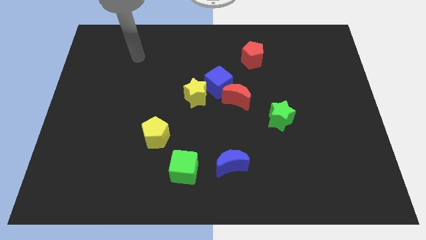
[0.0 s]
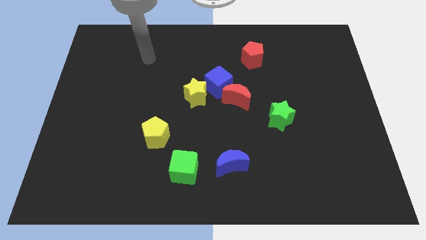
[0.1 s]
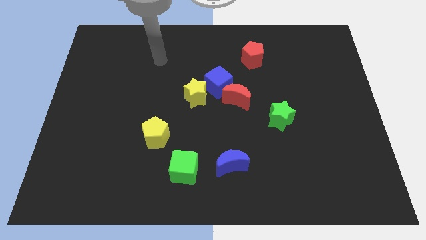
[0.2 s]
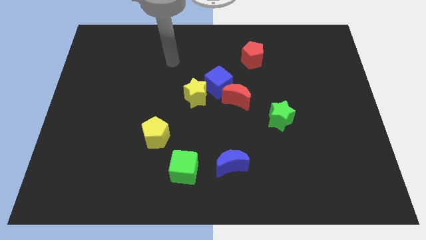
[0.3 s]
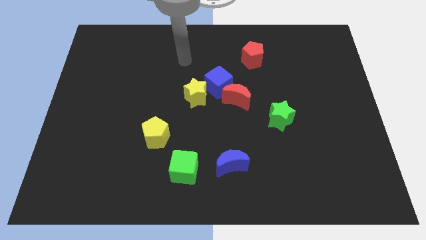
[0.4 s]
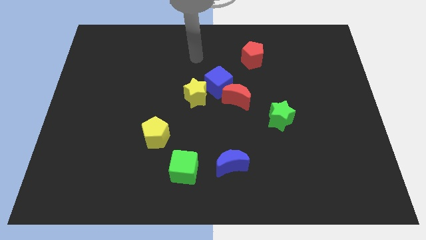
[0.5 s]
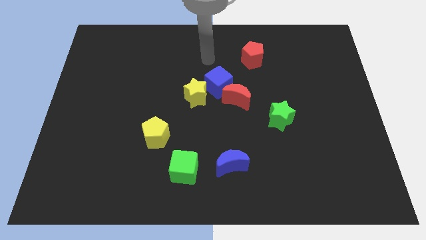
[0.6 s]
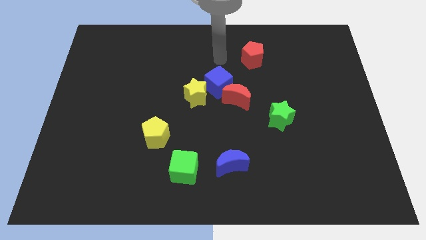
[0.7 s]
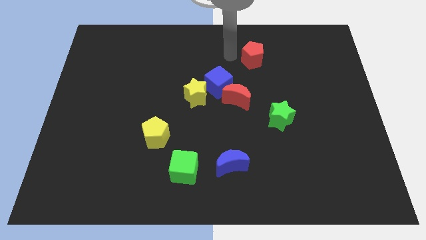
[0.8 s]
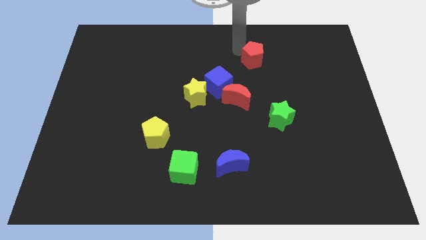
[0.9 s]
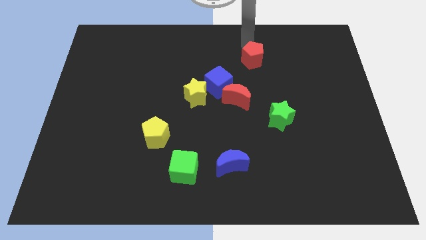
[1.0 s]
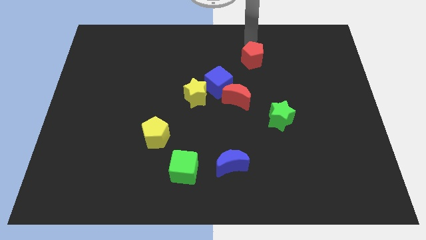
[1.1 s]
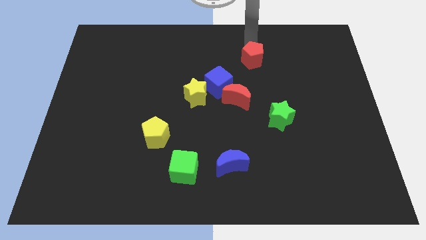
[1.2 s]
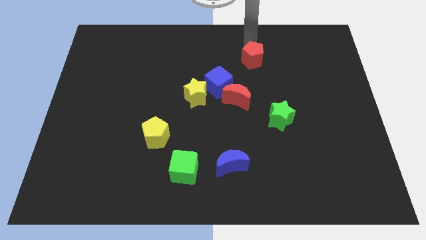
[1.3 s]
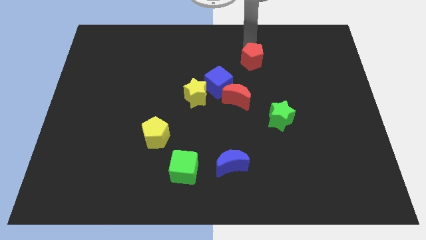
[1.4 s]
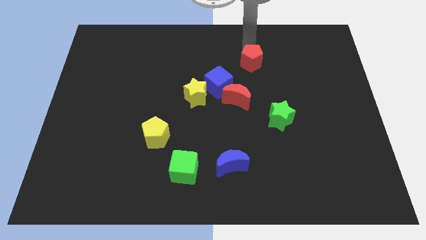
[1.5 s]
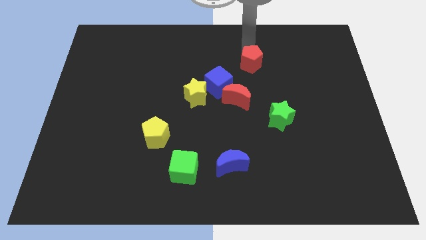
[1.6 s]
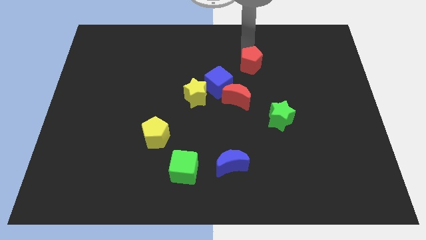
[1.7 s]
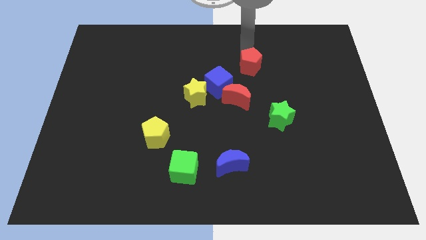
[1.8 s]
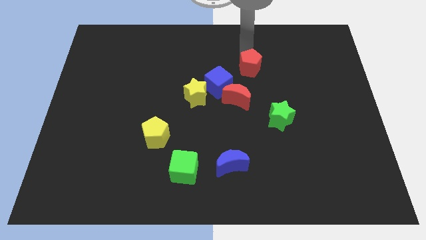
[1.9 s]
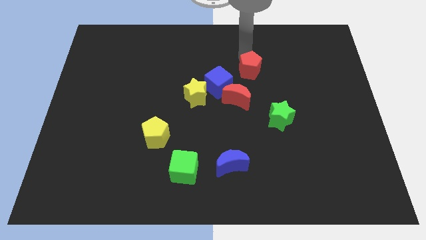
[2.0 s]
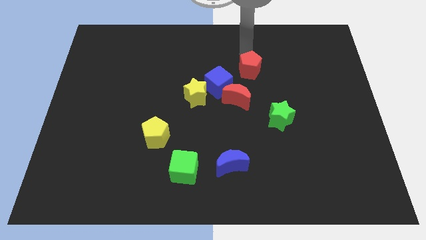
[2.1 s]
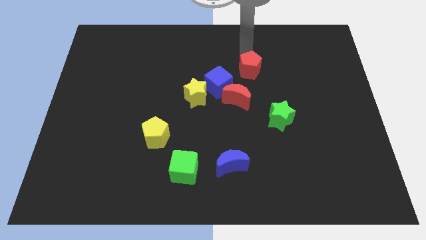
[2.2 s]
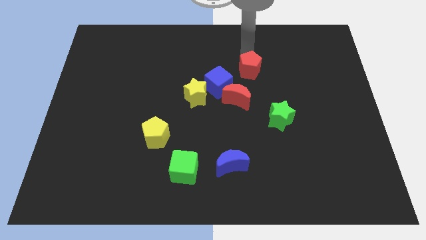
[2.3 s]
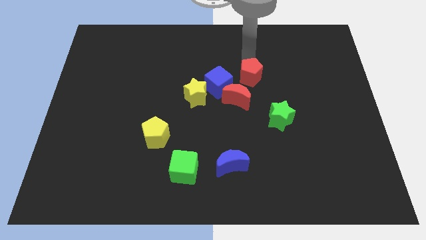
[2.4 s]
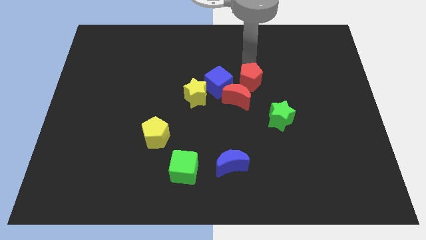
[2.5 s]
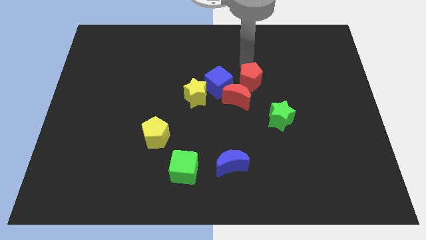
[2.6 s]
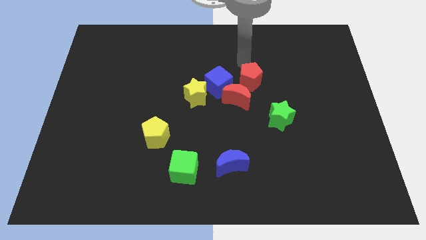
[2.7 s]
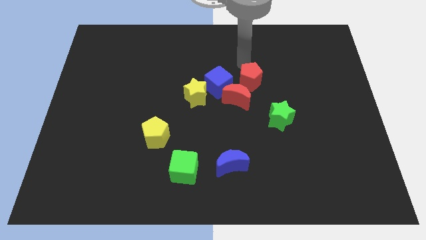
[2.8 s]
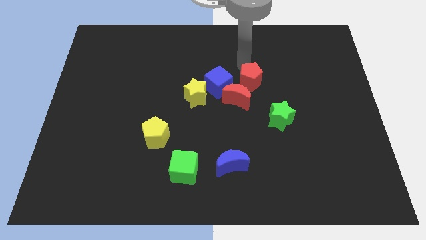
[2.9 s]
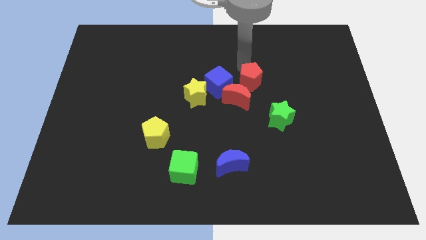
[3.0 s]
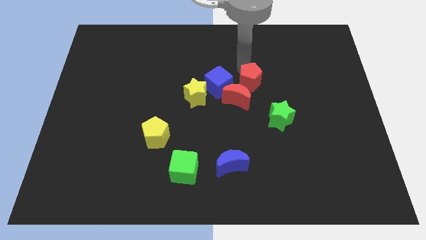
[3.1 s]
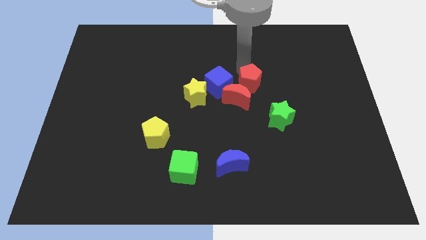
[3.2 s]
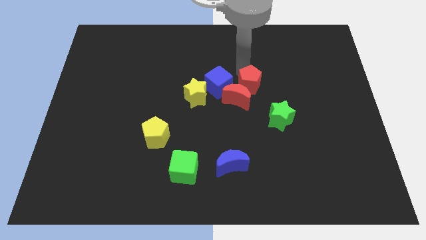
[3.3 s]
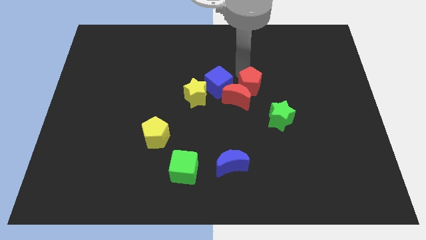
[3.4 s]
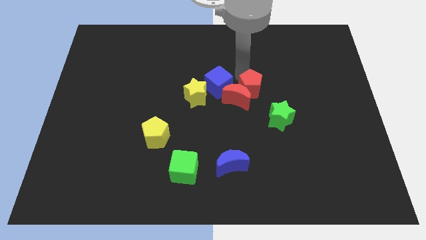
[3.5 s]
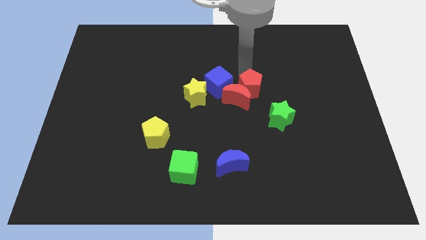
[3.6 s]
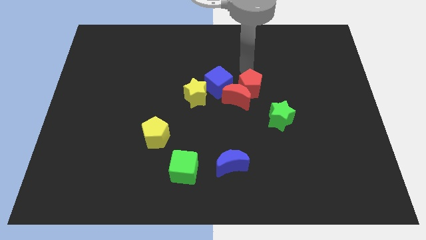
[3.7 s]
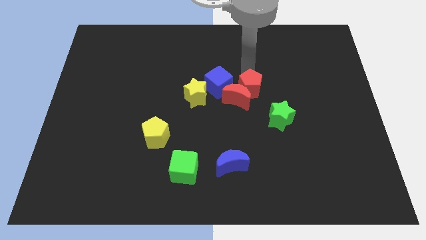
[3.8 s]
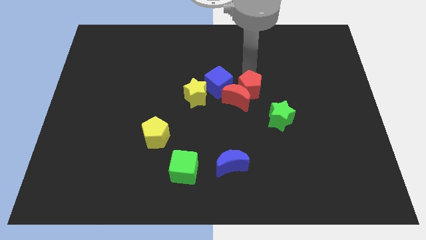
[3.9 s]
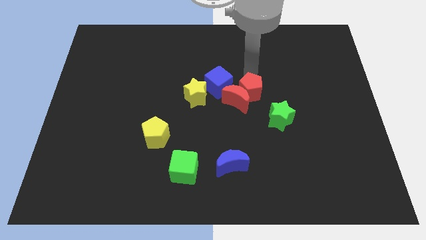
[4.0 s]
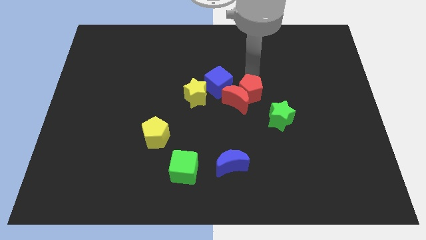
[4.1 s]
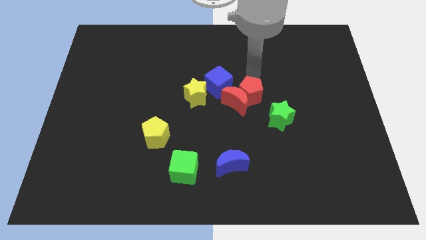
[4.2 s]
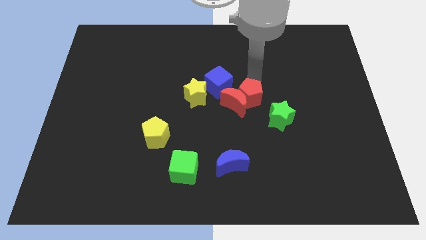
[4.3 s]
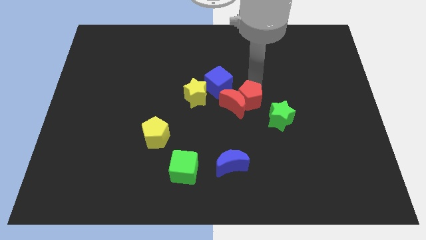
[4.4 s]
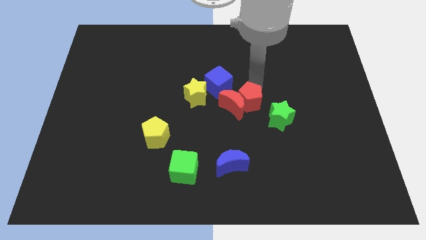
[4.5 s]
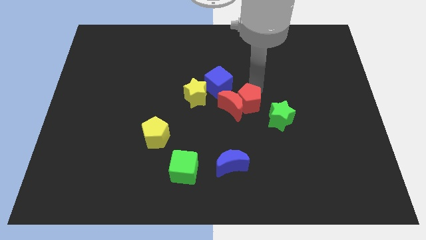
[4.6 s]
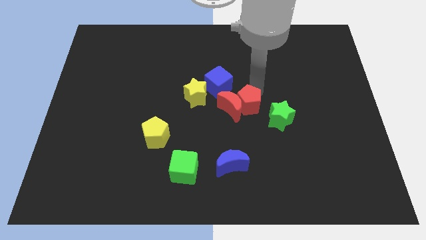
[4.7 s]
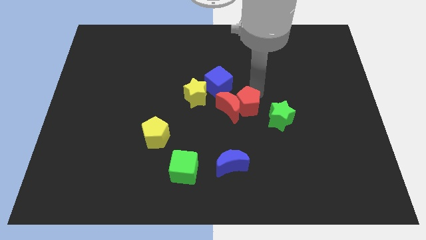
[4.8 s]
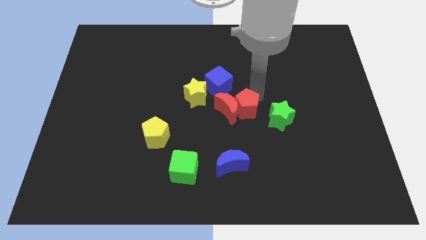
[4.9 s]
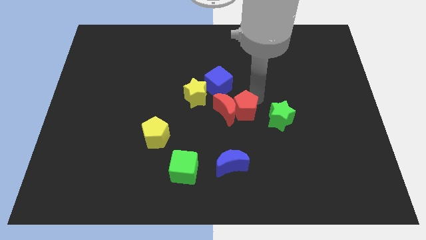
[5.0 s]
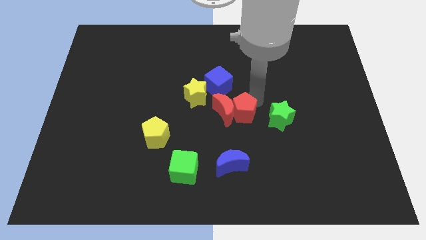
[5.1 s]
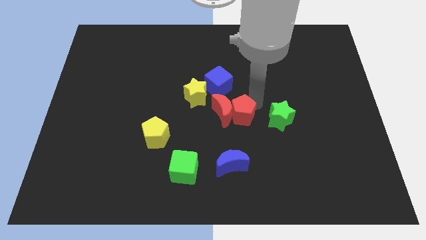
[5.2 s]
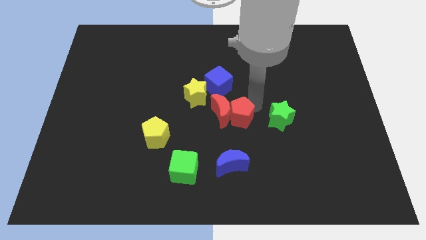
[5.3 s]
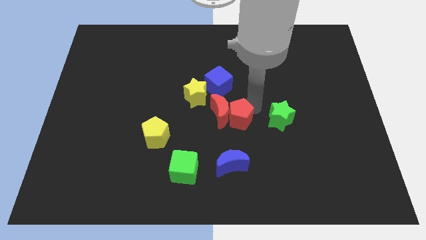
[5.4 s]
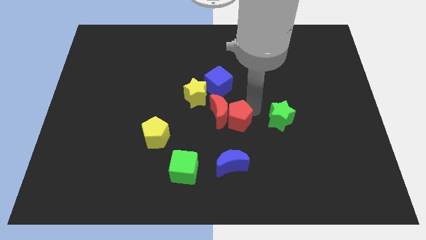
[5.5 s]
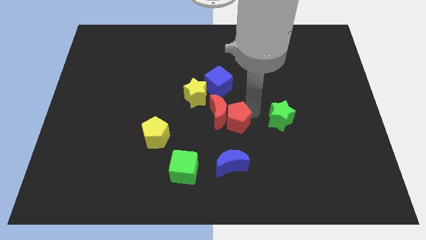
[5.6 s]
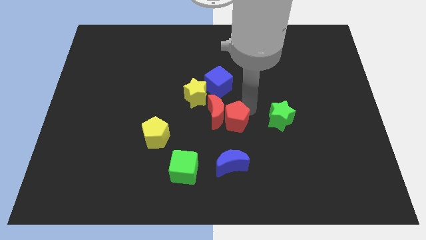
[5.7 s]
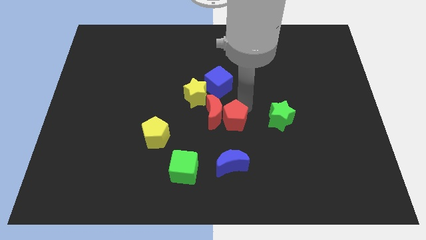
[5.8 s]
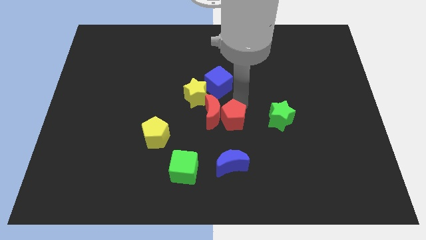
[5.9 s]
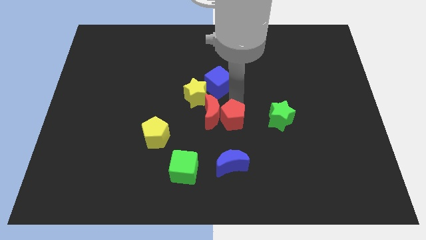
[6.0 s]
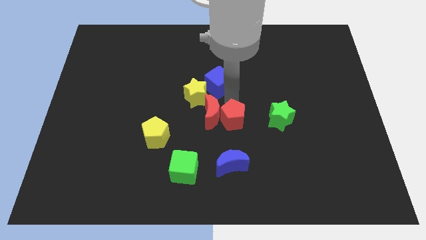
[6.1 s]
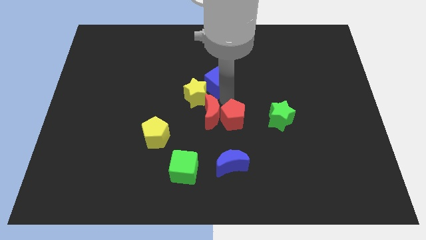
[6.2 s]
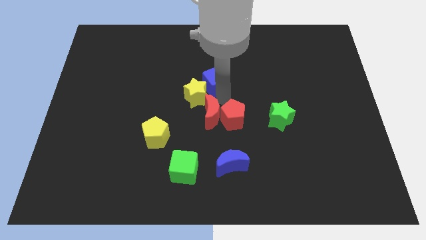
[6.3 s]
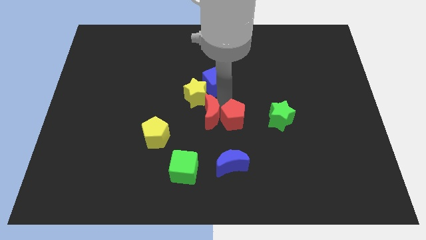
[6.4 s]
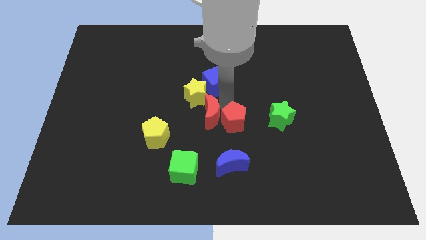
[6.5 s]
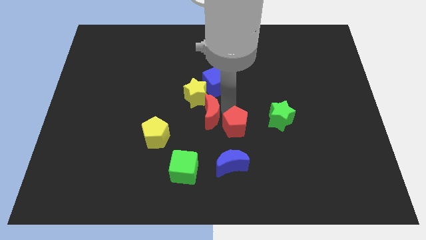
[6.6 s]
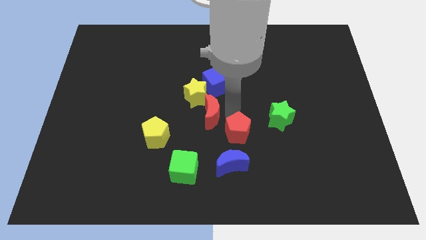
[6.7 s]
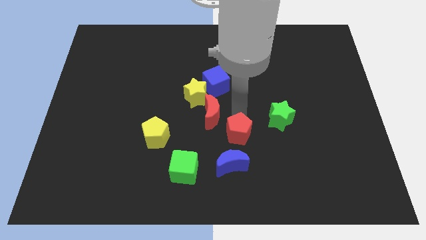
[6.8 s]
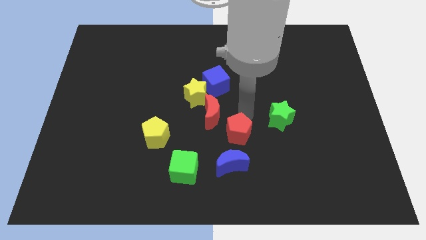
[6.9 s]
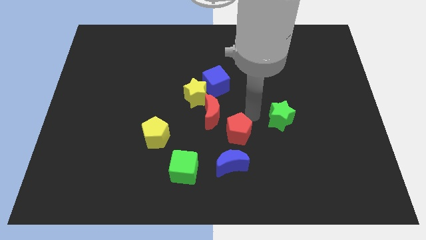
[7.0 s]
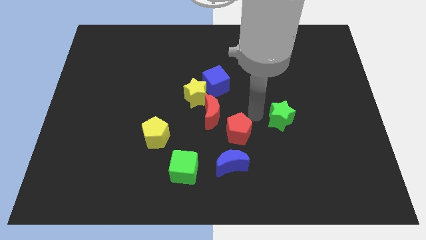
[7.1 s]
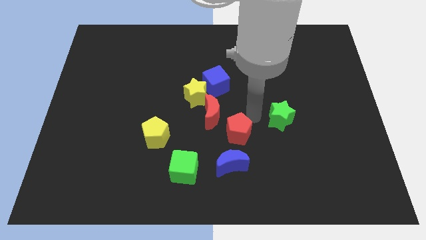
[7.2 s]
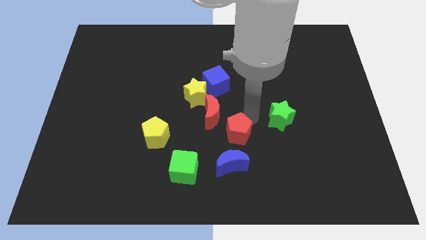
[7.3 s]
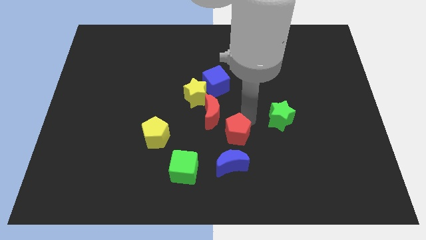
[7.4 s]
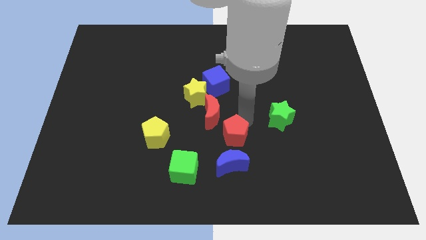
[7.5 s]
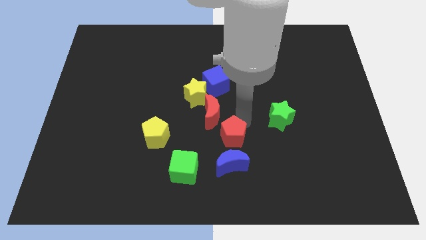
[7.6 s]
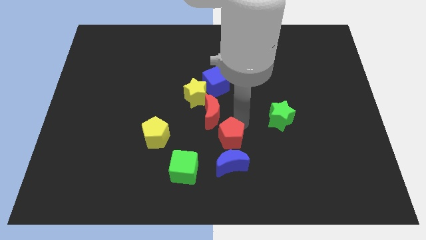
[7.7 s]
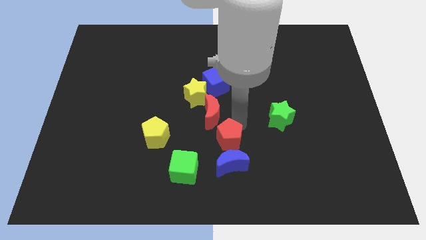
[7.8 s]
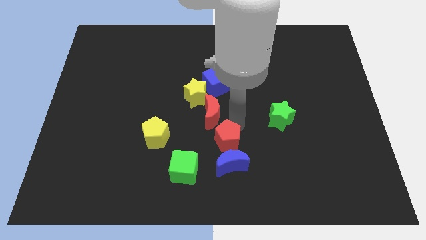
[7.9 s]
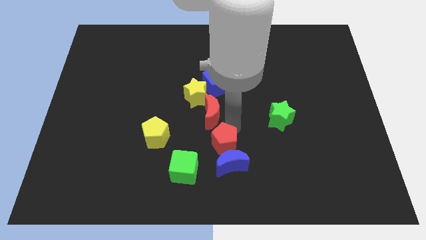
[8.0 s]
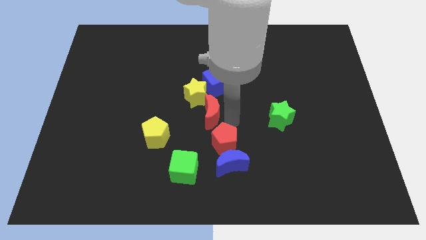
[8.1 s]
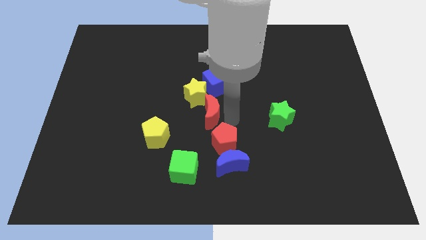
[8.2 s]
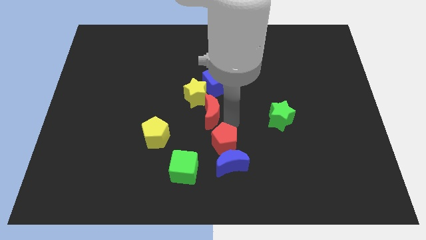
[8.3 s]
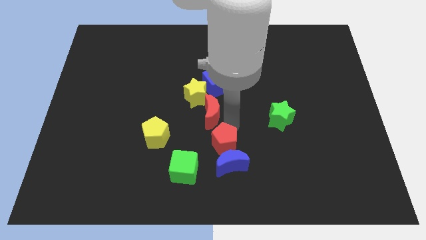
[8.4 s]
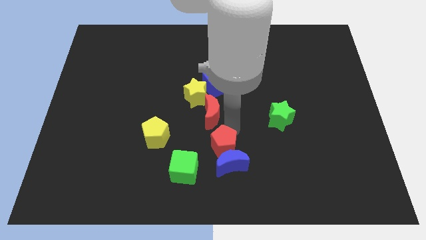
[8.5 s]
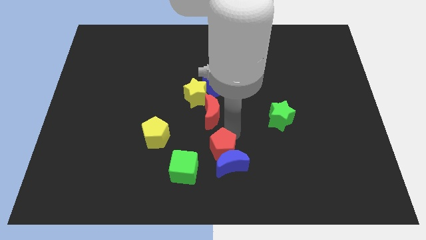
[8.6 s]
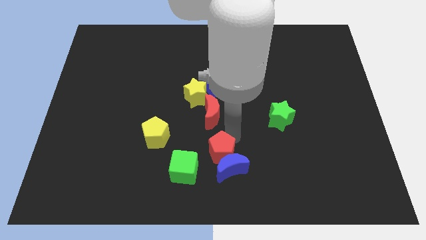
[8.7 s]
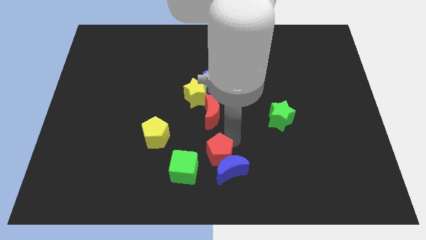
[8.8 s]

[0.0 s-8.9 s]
slide the red pentagon to the bottom
